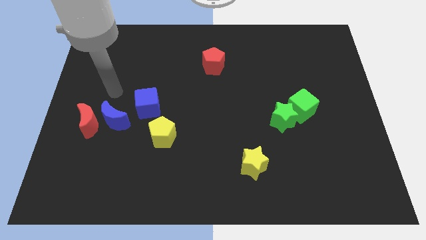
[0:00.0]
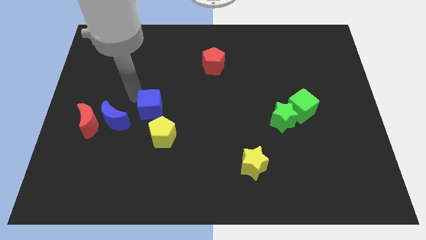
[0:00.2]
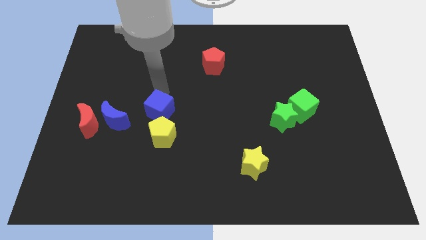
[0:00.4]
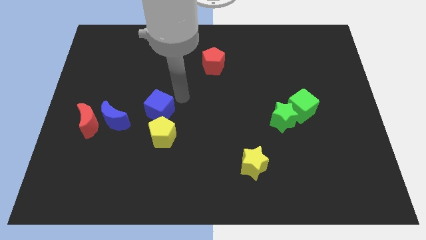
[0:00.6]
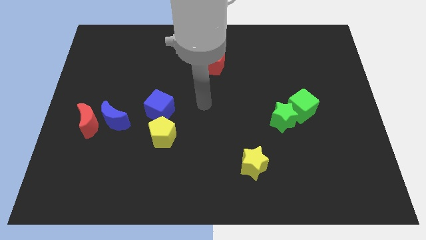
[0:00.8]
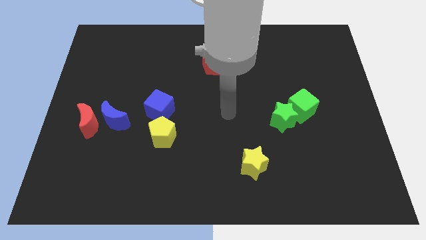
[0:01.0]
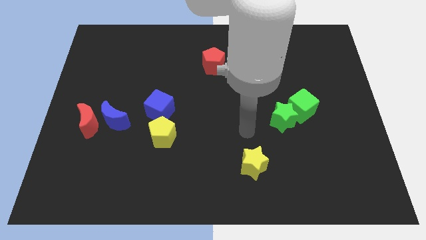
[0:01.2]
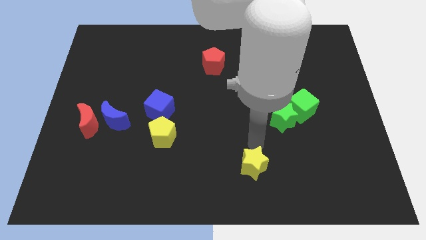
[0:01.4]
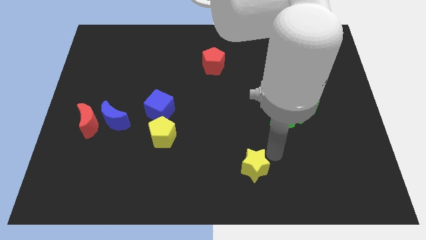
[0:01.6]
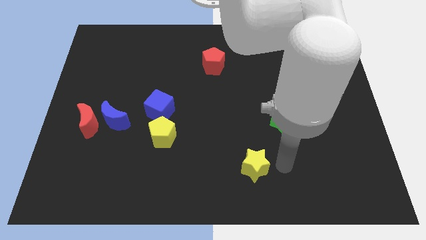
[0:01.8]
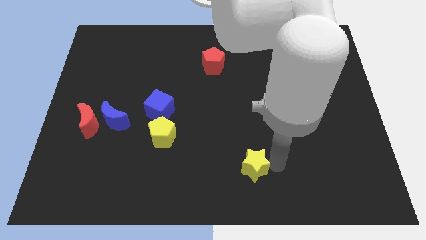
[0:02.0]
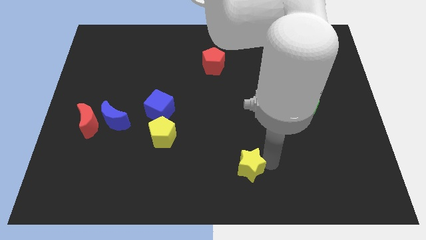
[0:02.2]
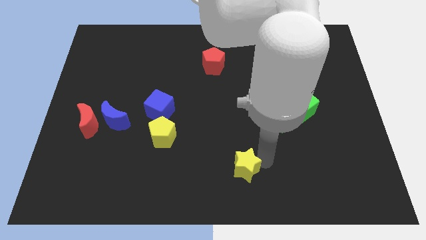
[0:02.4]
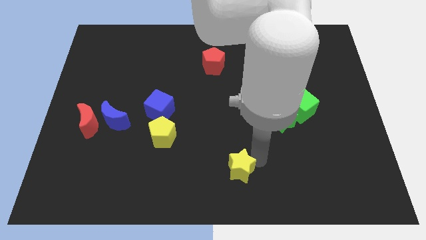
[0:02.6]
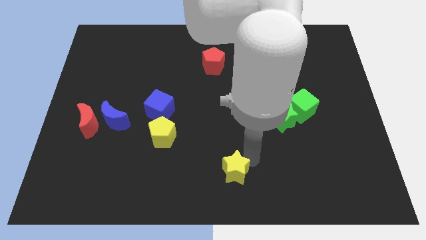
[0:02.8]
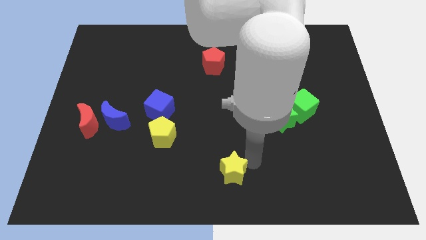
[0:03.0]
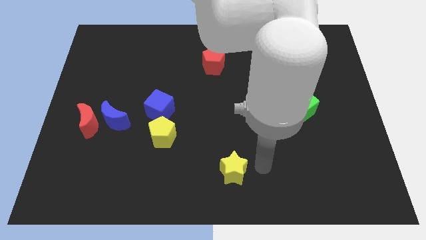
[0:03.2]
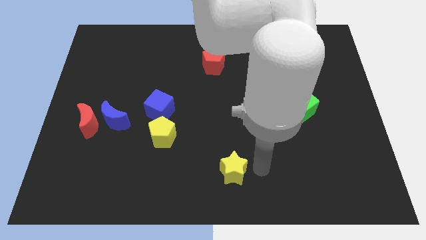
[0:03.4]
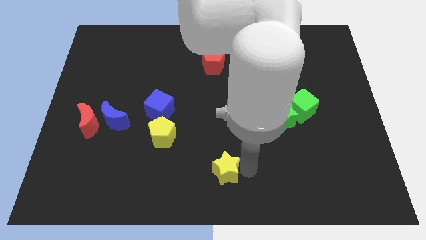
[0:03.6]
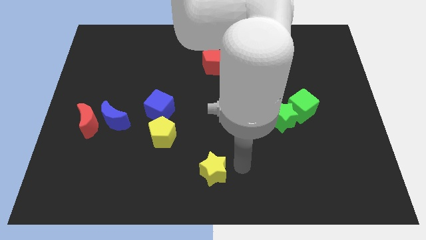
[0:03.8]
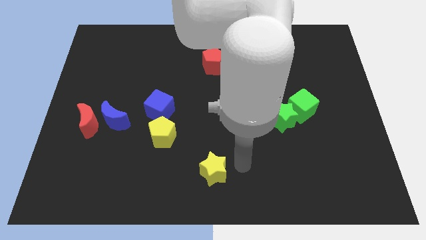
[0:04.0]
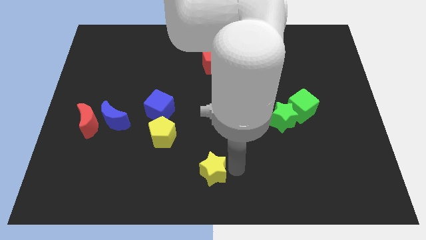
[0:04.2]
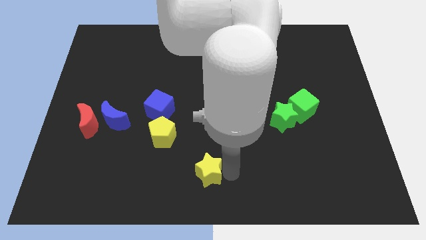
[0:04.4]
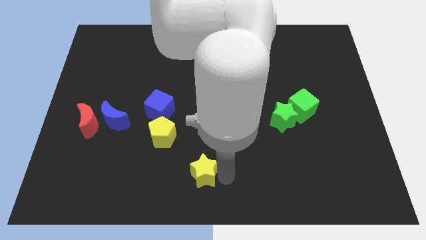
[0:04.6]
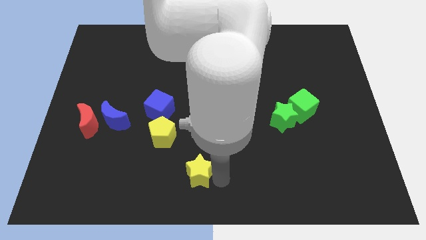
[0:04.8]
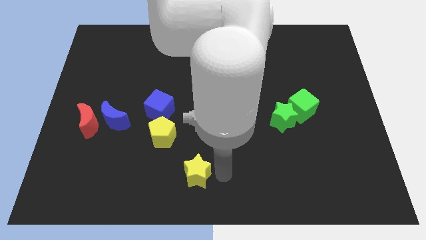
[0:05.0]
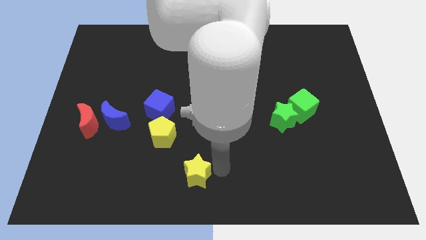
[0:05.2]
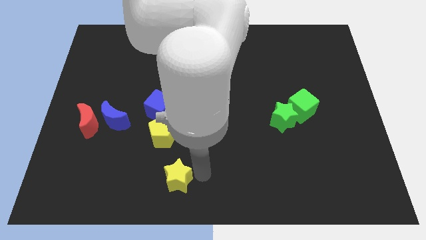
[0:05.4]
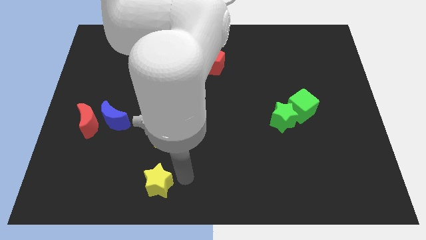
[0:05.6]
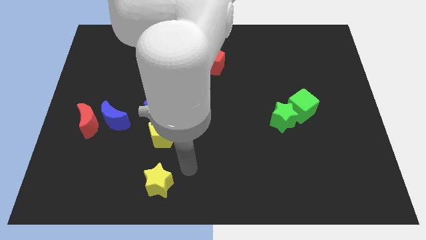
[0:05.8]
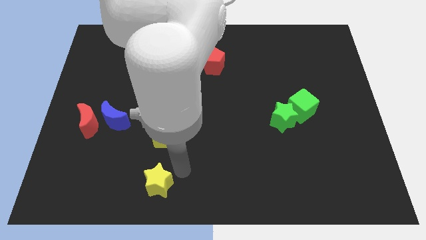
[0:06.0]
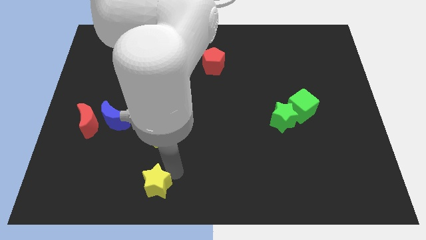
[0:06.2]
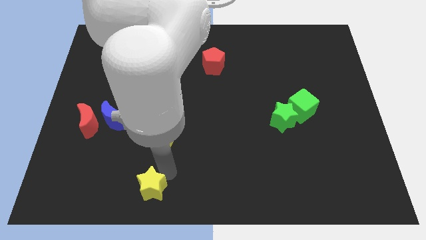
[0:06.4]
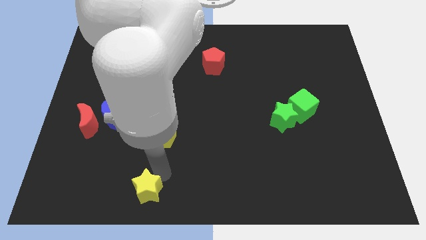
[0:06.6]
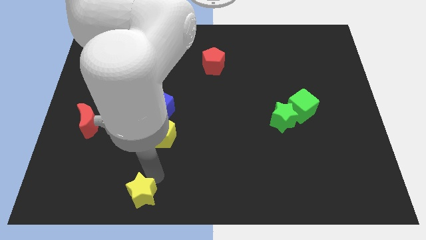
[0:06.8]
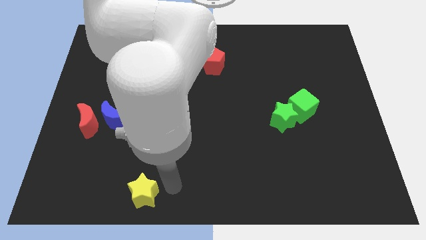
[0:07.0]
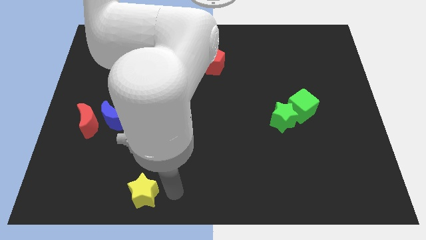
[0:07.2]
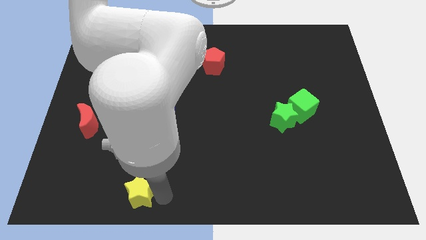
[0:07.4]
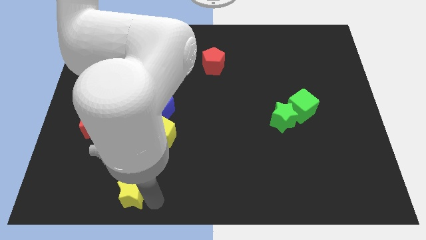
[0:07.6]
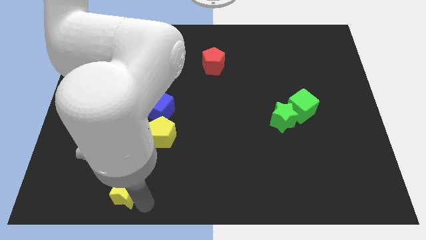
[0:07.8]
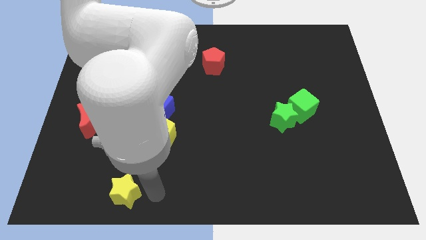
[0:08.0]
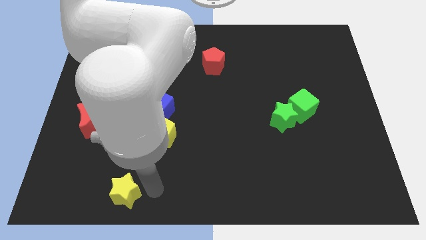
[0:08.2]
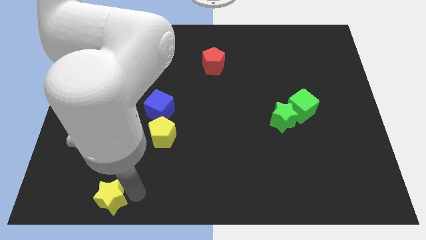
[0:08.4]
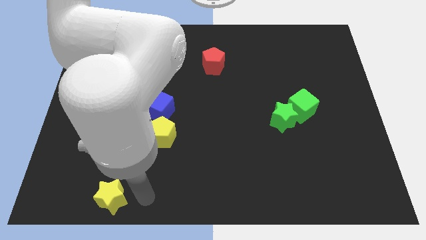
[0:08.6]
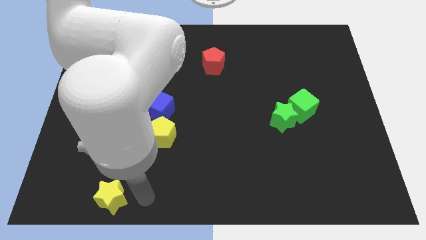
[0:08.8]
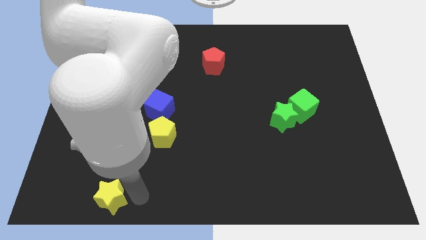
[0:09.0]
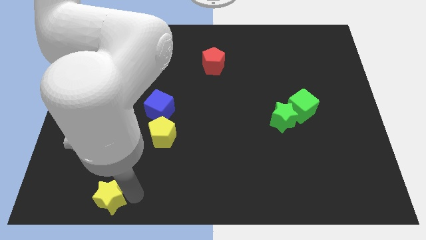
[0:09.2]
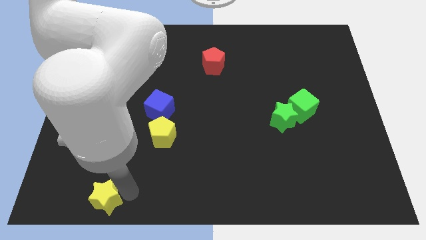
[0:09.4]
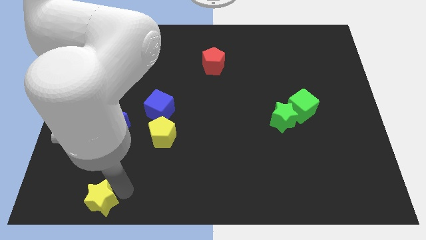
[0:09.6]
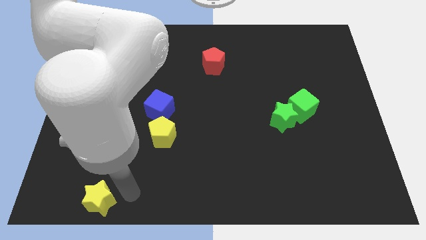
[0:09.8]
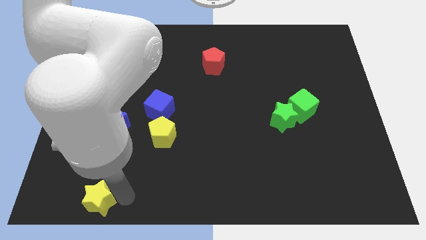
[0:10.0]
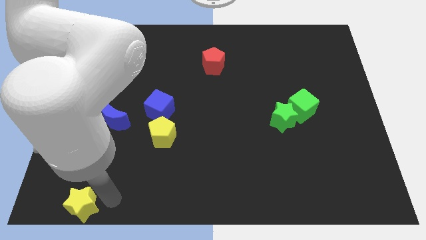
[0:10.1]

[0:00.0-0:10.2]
push the yellow star to the bottom left corner

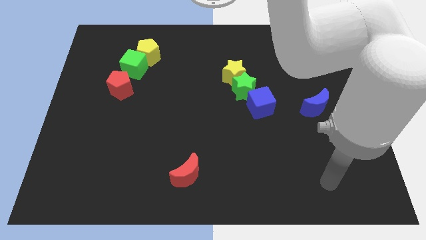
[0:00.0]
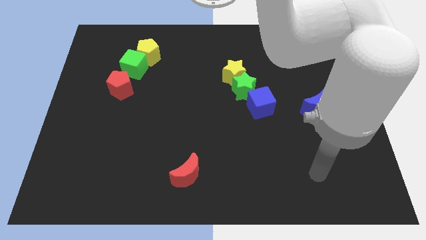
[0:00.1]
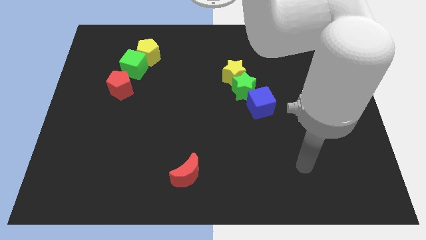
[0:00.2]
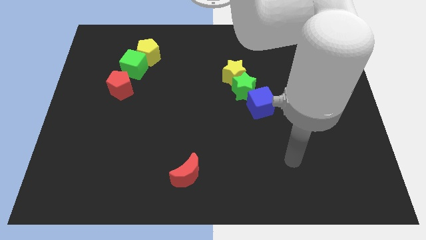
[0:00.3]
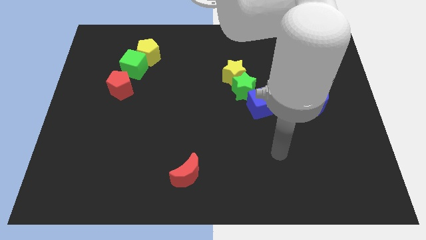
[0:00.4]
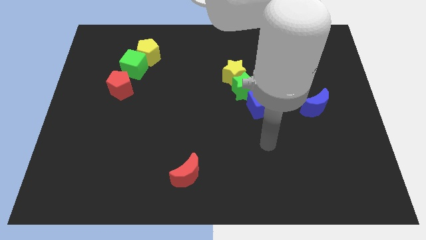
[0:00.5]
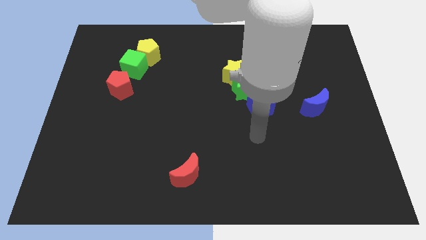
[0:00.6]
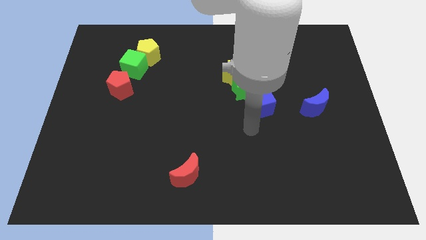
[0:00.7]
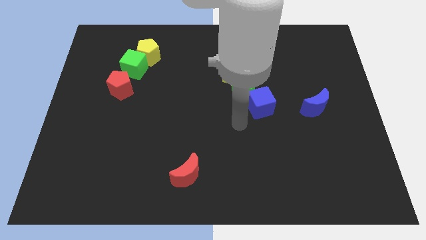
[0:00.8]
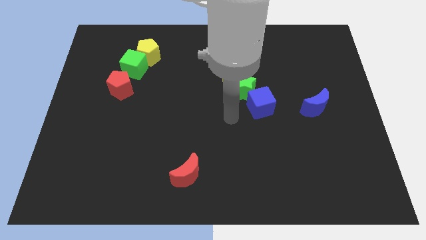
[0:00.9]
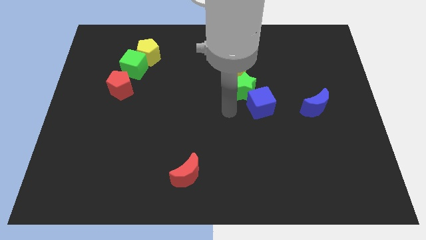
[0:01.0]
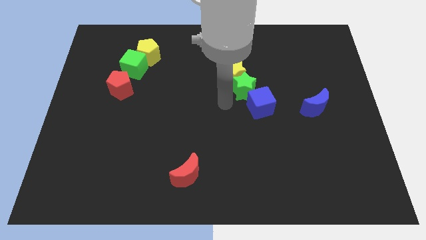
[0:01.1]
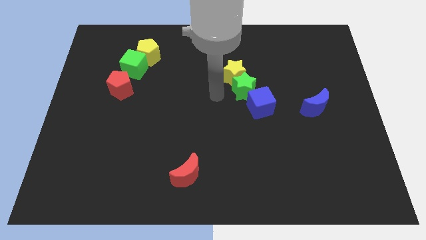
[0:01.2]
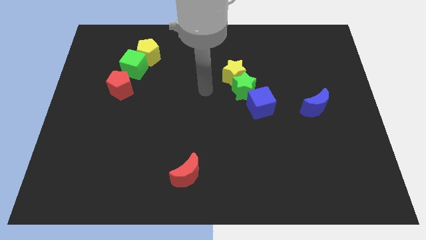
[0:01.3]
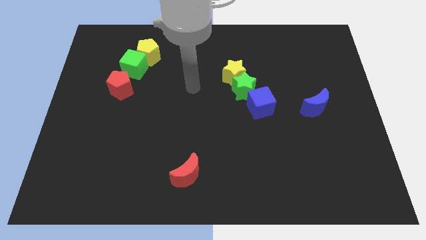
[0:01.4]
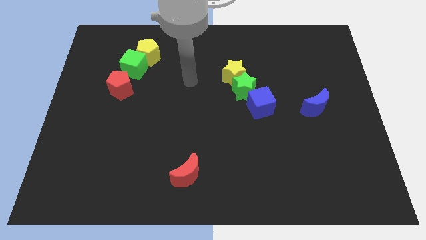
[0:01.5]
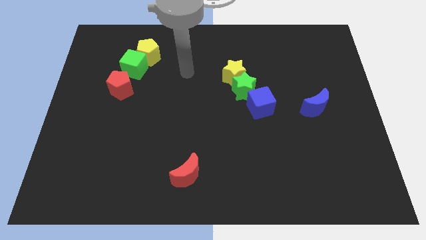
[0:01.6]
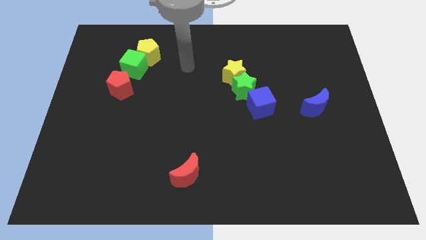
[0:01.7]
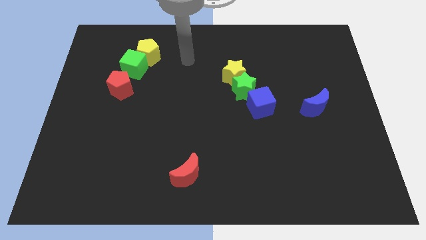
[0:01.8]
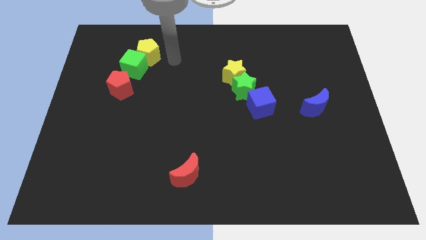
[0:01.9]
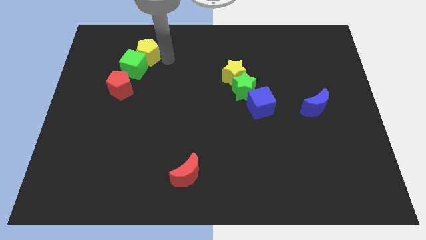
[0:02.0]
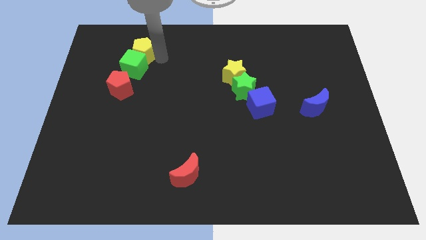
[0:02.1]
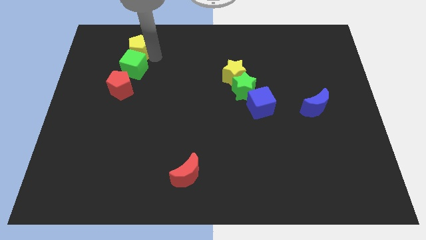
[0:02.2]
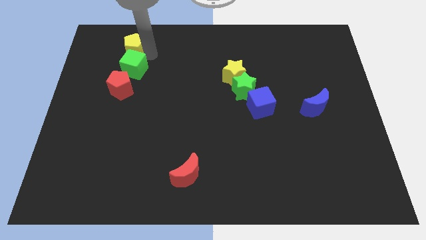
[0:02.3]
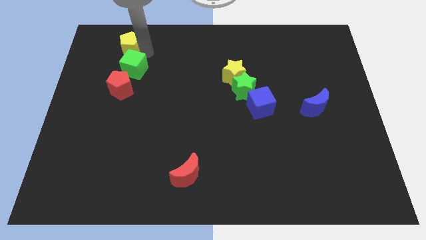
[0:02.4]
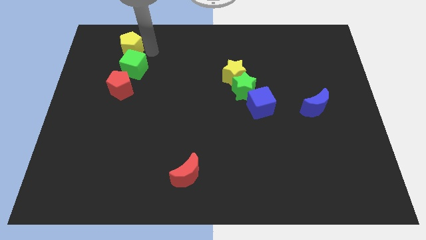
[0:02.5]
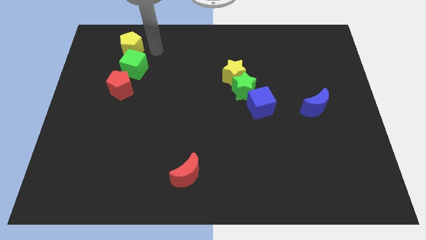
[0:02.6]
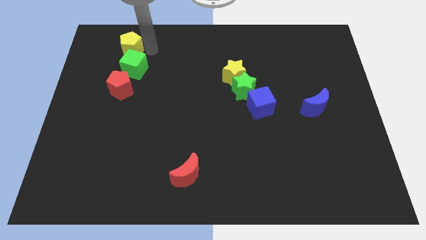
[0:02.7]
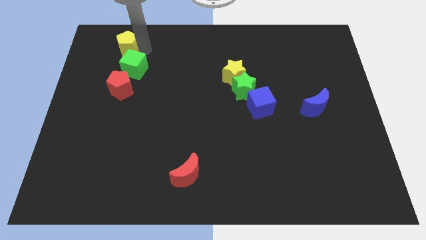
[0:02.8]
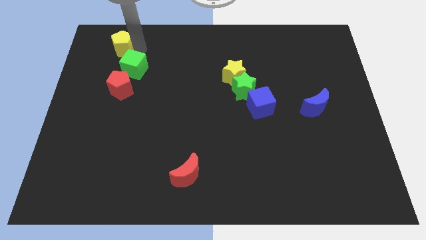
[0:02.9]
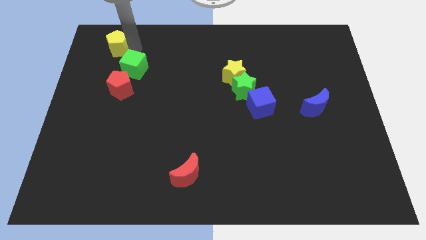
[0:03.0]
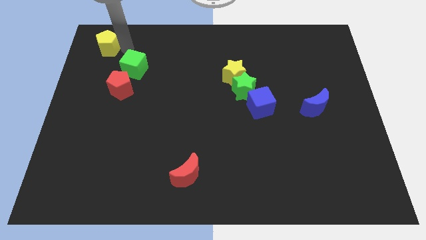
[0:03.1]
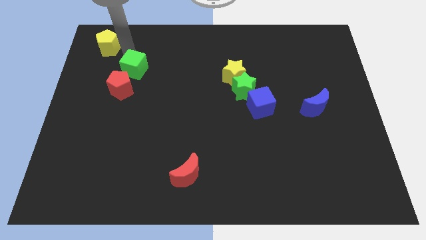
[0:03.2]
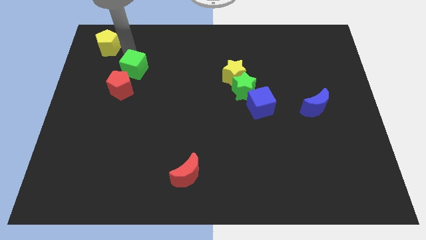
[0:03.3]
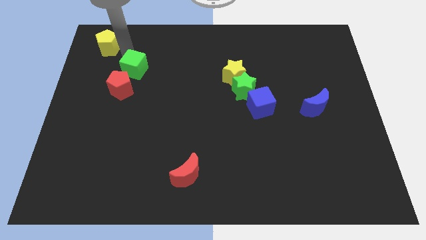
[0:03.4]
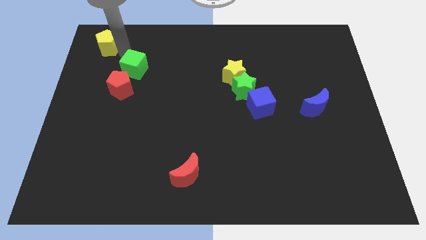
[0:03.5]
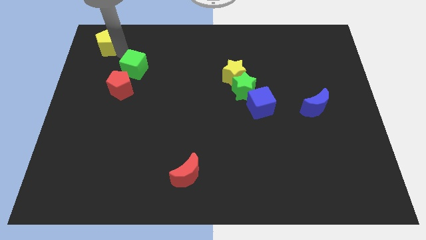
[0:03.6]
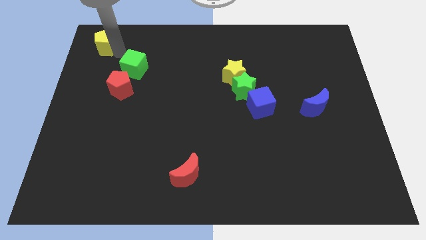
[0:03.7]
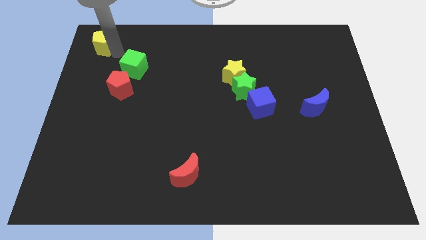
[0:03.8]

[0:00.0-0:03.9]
slide the yellow pentagon to the top left of the board
